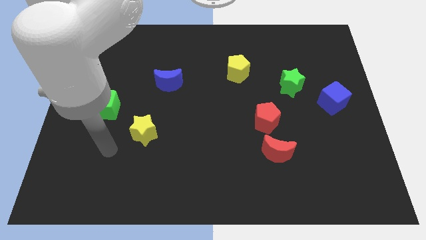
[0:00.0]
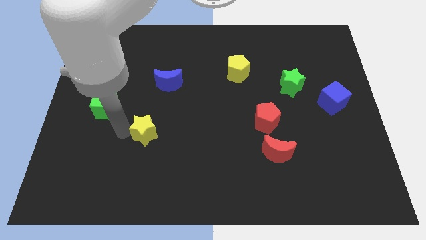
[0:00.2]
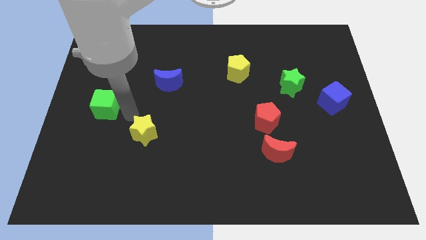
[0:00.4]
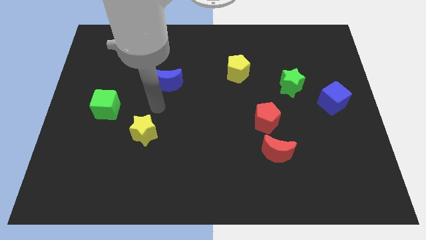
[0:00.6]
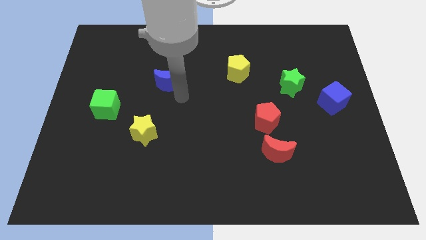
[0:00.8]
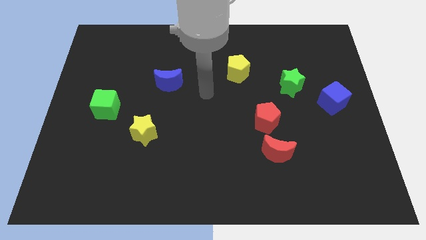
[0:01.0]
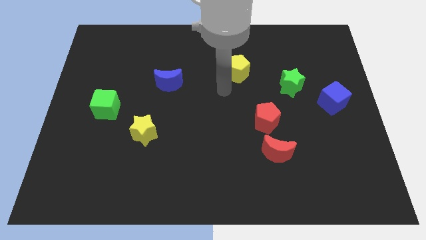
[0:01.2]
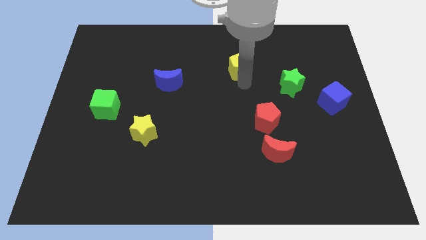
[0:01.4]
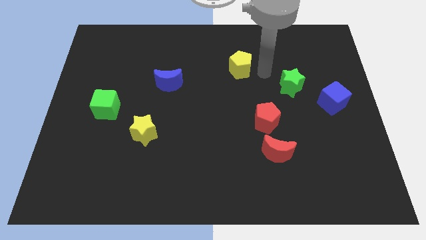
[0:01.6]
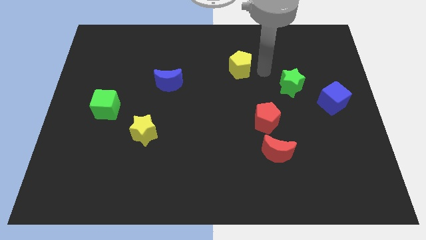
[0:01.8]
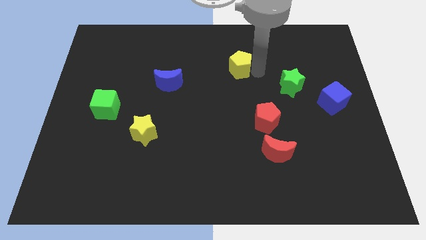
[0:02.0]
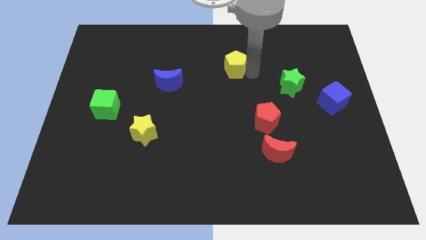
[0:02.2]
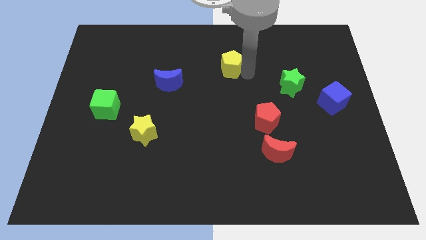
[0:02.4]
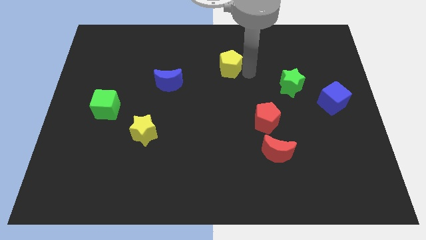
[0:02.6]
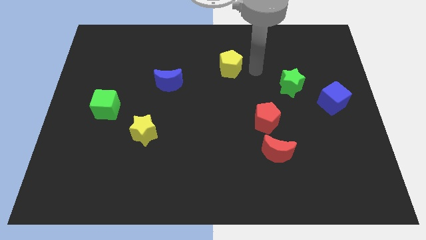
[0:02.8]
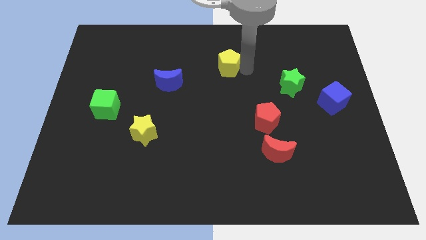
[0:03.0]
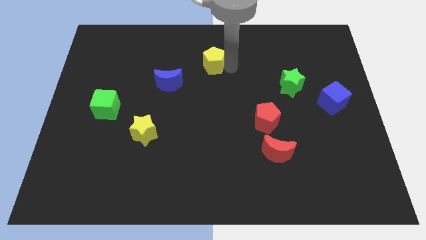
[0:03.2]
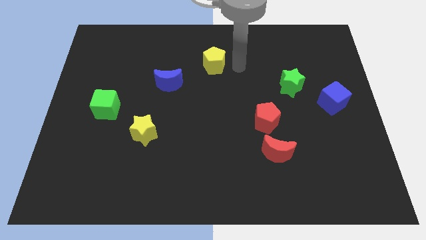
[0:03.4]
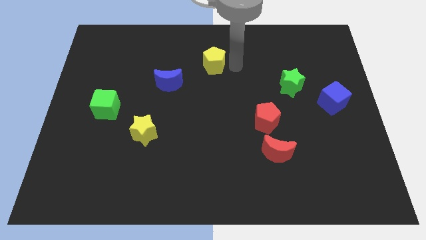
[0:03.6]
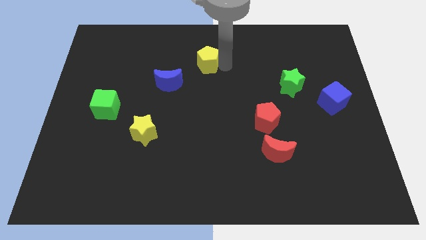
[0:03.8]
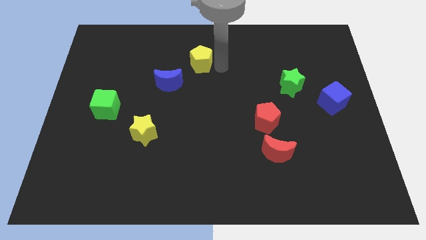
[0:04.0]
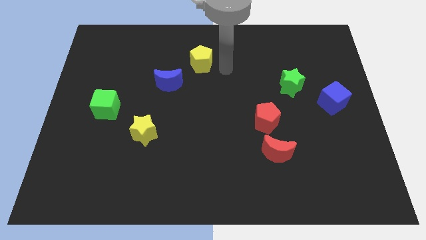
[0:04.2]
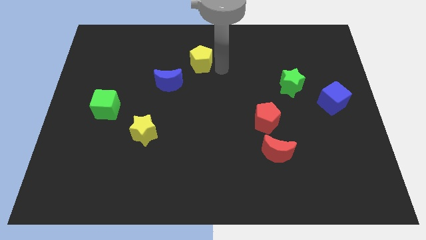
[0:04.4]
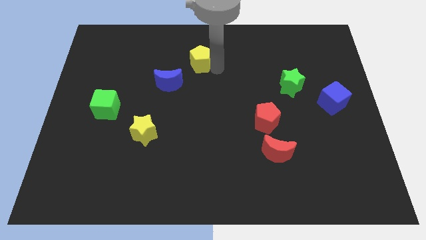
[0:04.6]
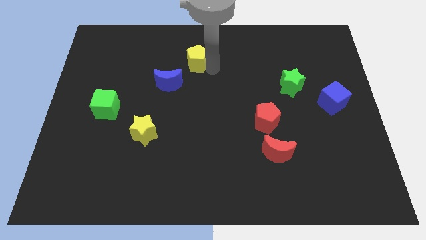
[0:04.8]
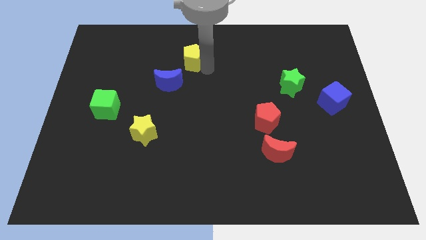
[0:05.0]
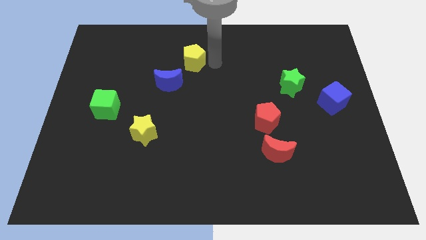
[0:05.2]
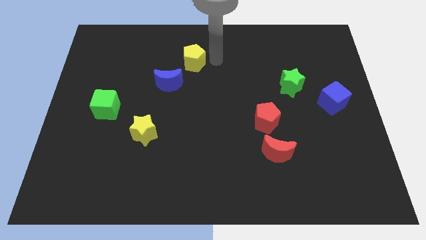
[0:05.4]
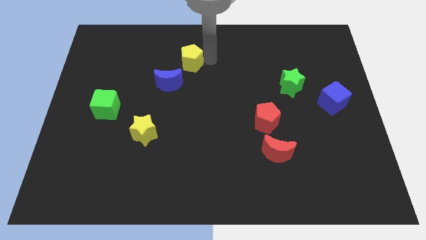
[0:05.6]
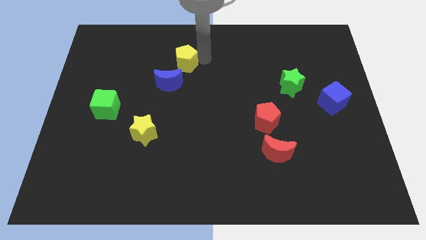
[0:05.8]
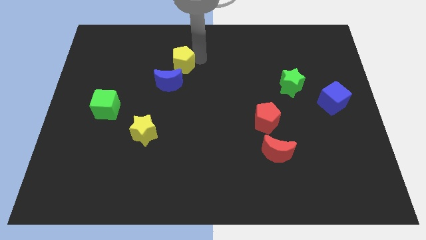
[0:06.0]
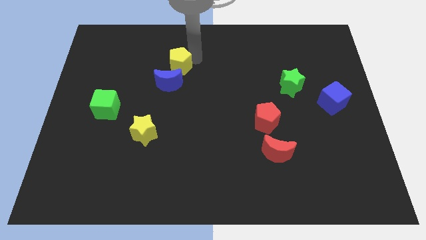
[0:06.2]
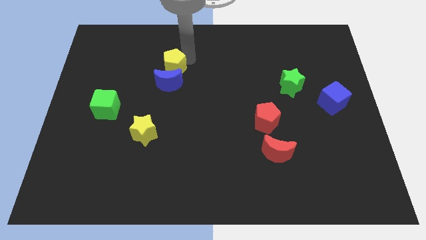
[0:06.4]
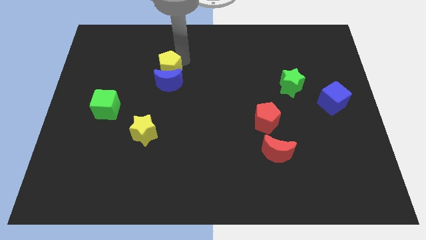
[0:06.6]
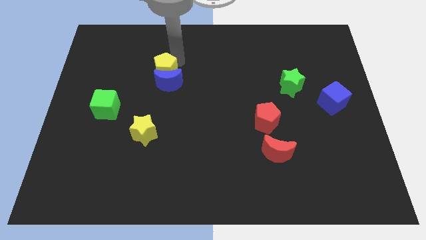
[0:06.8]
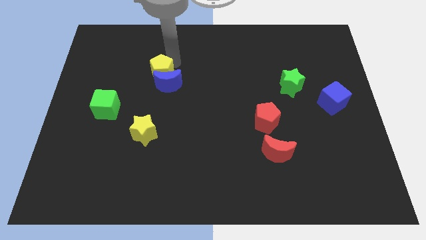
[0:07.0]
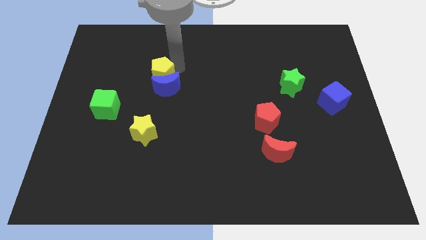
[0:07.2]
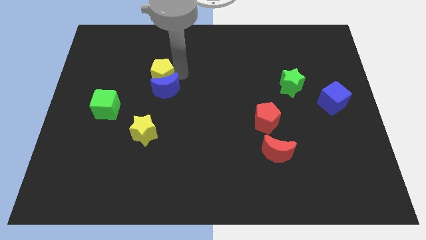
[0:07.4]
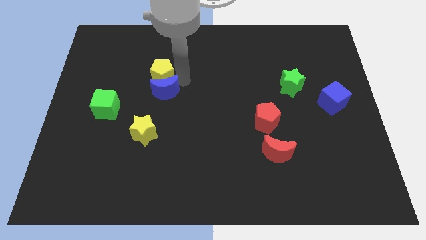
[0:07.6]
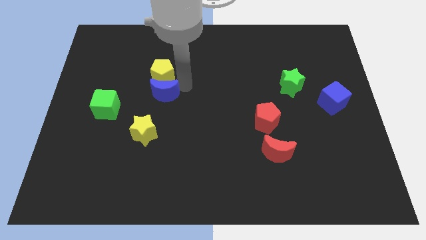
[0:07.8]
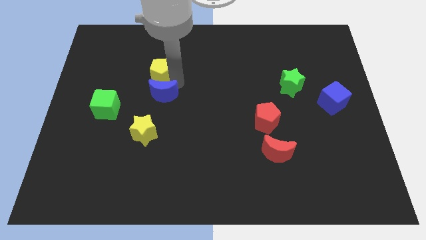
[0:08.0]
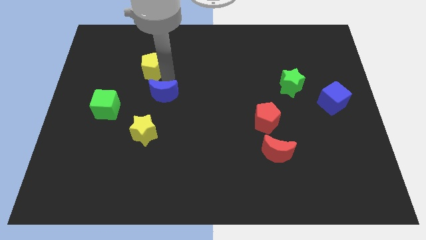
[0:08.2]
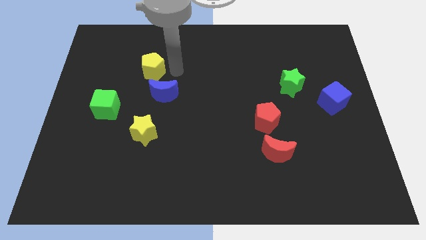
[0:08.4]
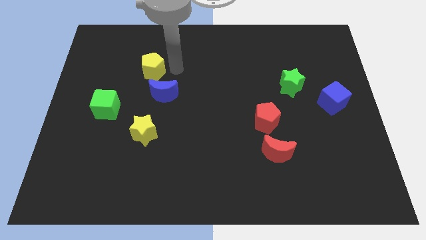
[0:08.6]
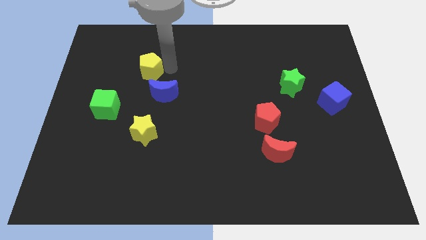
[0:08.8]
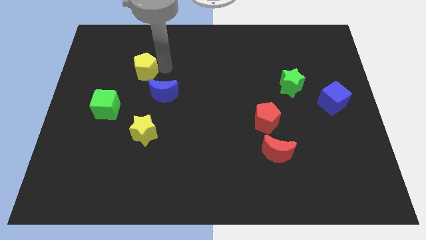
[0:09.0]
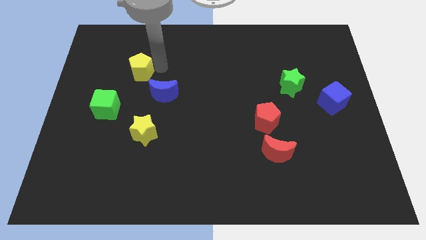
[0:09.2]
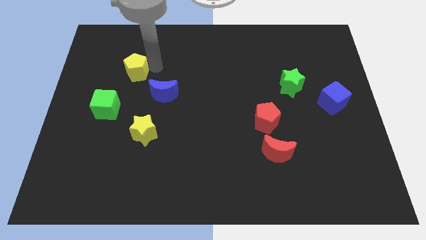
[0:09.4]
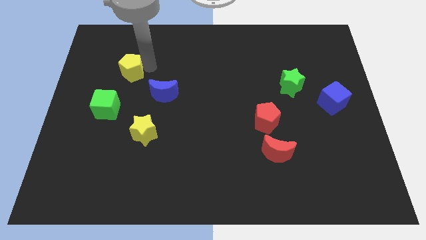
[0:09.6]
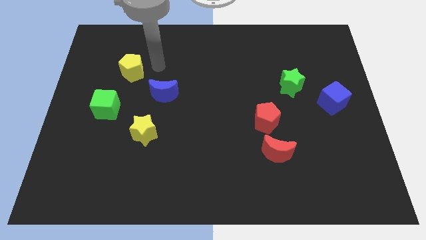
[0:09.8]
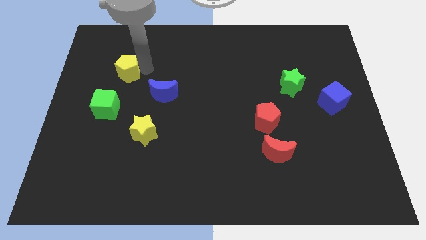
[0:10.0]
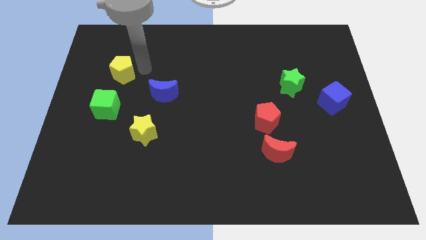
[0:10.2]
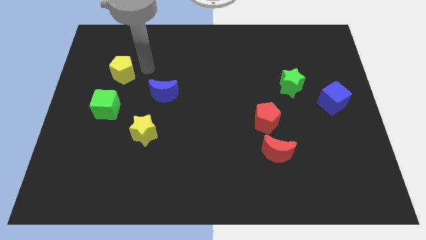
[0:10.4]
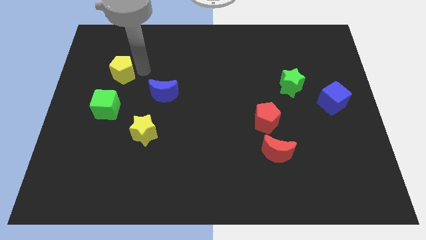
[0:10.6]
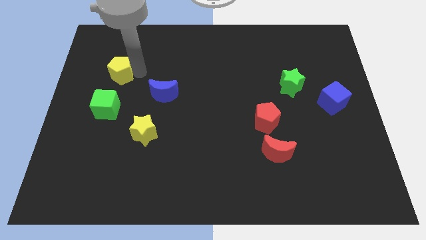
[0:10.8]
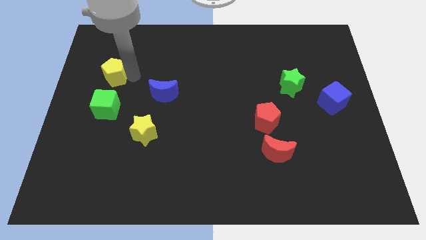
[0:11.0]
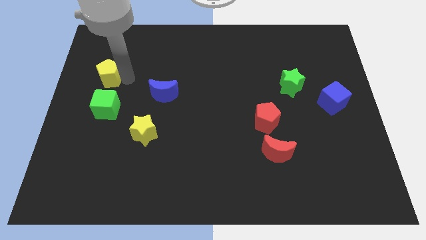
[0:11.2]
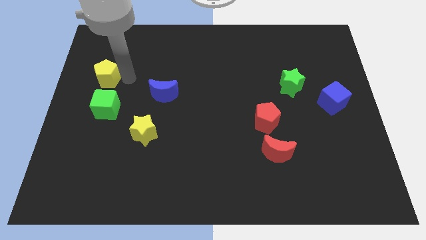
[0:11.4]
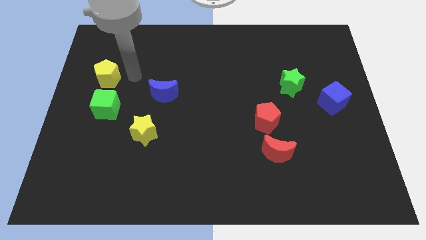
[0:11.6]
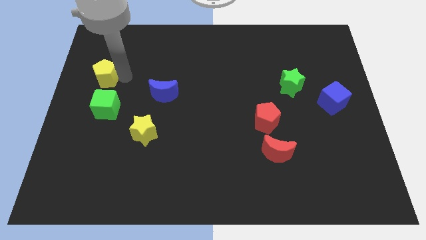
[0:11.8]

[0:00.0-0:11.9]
slide the yellow pentagon to the left side of the board

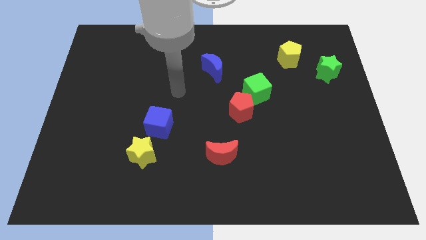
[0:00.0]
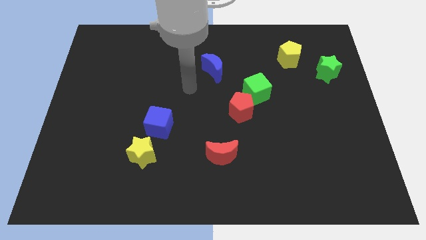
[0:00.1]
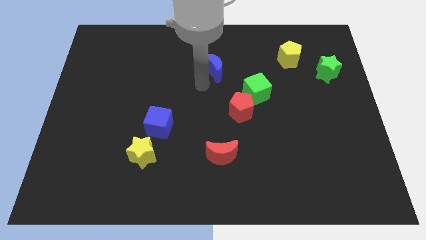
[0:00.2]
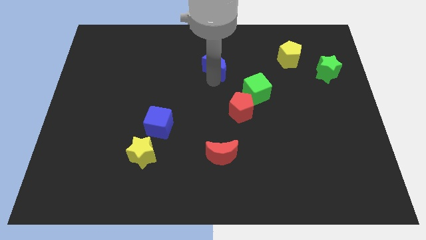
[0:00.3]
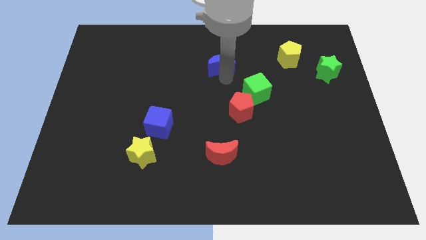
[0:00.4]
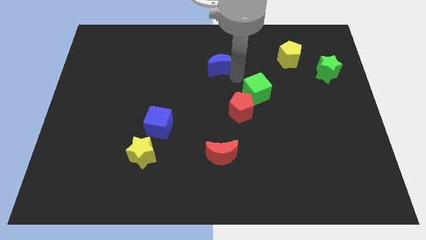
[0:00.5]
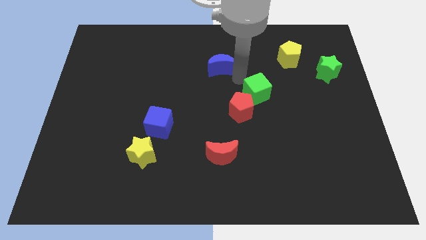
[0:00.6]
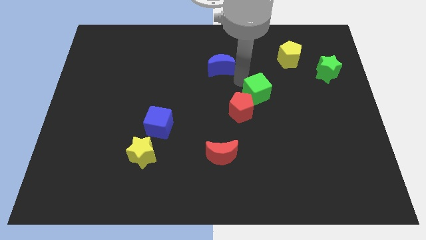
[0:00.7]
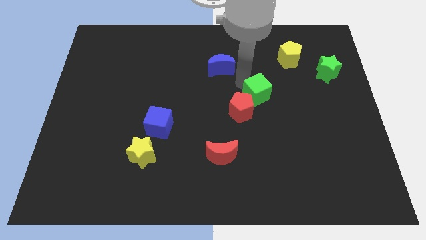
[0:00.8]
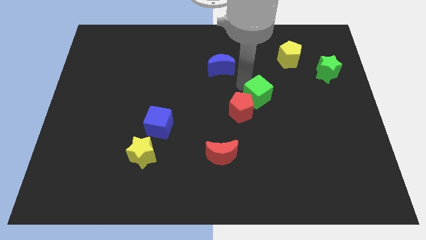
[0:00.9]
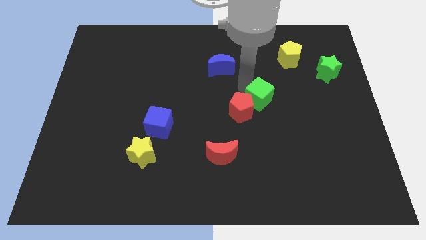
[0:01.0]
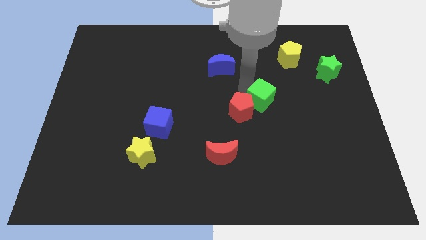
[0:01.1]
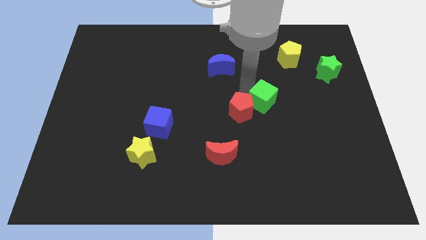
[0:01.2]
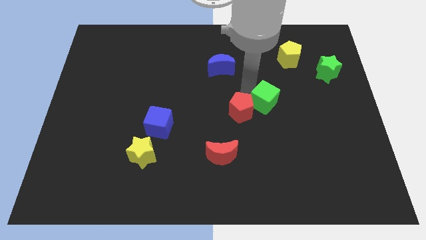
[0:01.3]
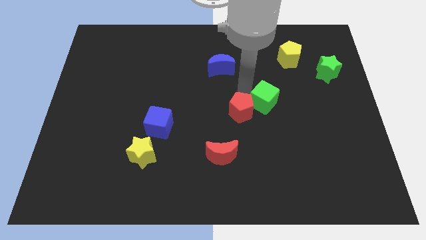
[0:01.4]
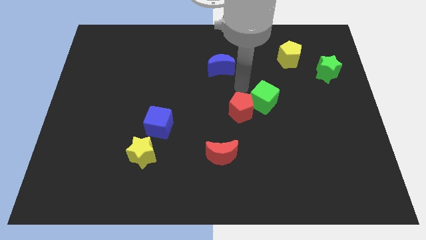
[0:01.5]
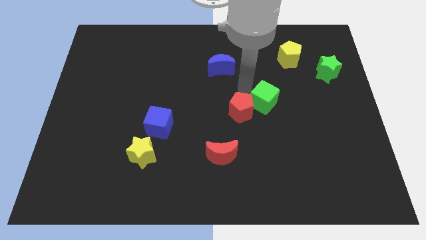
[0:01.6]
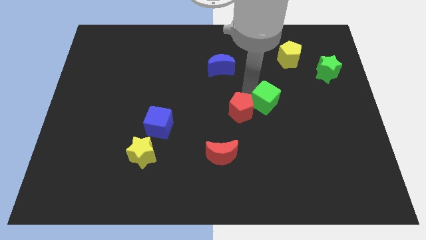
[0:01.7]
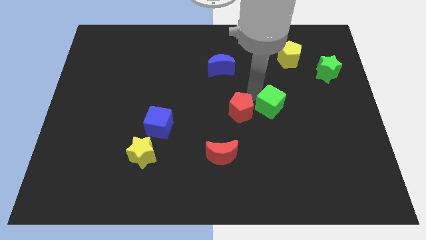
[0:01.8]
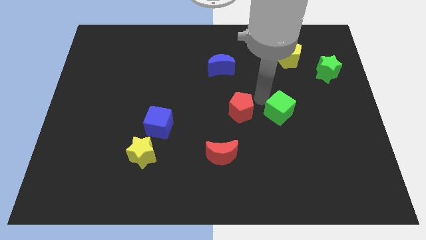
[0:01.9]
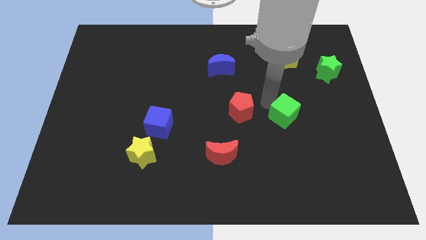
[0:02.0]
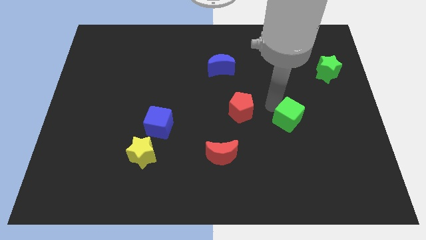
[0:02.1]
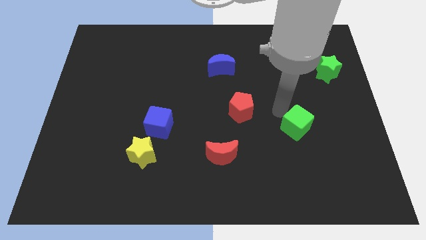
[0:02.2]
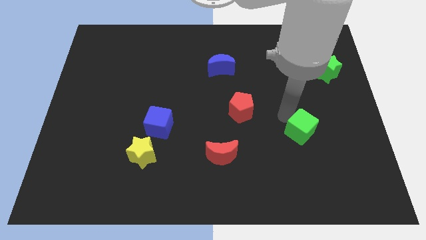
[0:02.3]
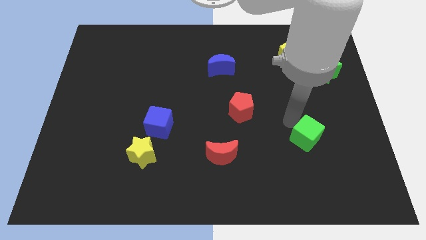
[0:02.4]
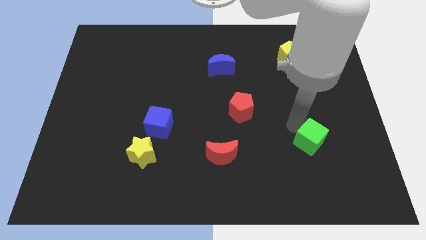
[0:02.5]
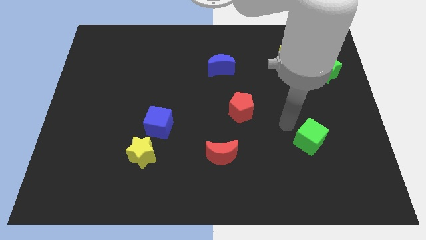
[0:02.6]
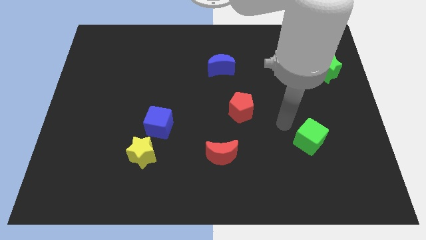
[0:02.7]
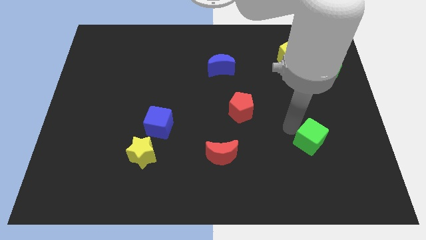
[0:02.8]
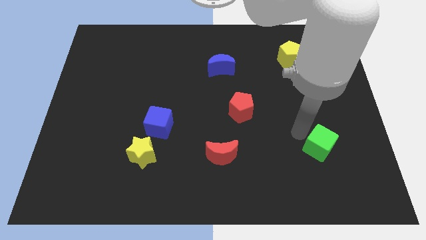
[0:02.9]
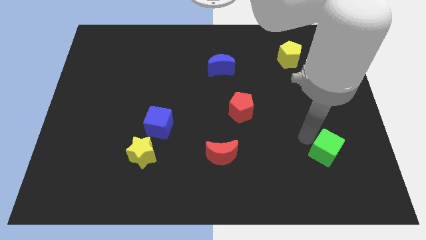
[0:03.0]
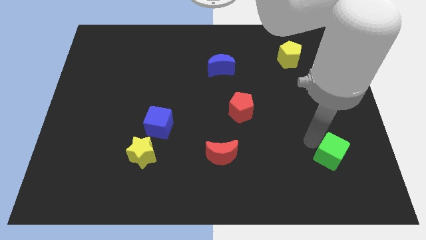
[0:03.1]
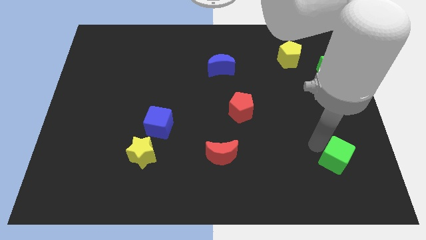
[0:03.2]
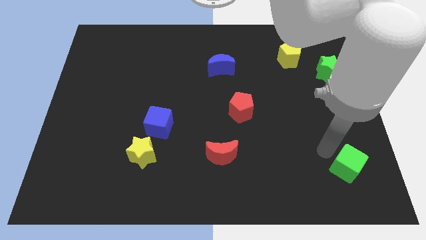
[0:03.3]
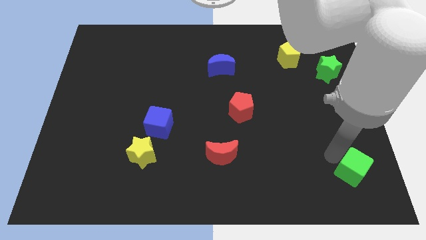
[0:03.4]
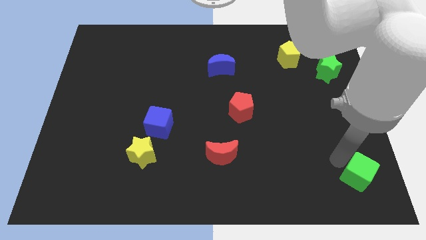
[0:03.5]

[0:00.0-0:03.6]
push the green cube to the bottom right of the board
